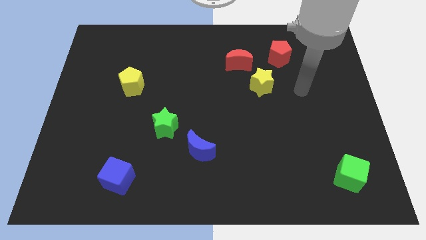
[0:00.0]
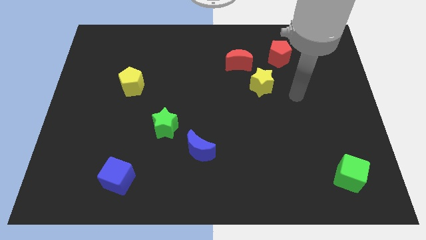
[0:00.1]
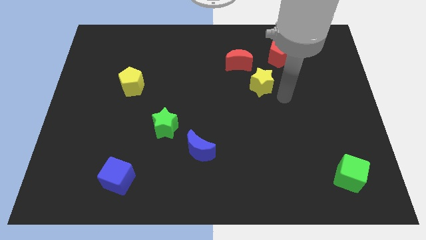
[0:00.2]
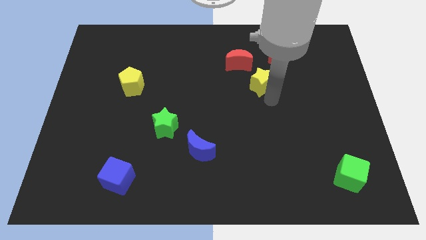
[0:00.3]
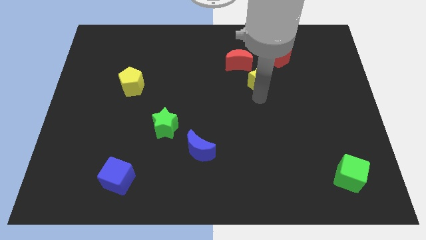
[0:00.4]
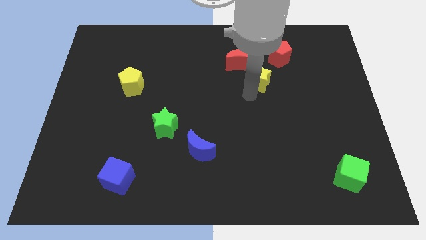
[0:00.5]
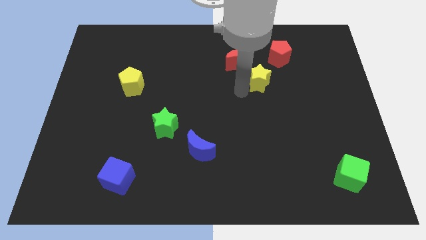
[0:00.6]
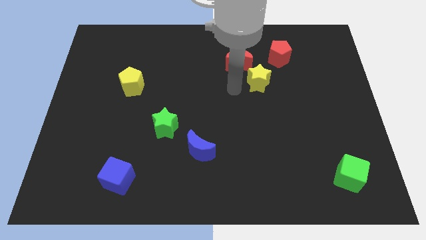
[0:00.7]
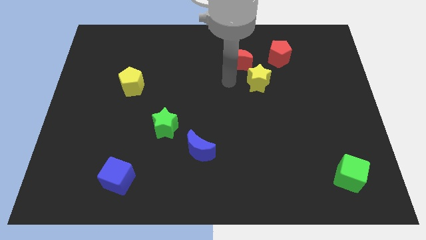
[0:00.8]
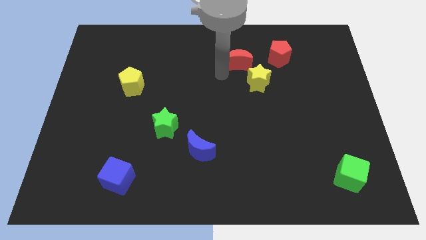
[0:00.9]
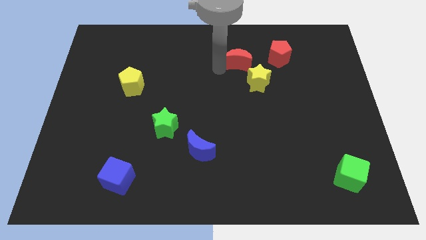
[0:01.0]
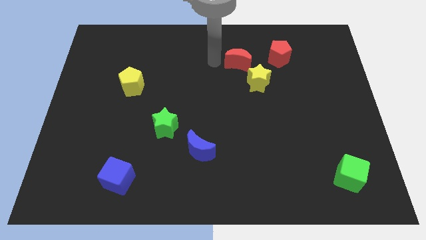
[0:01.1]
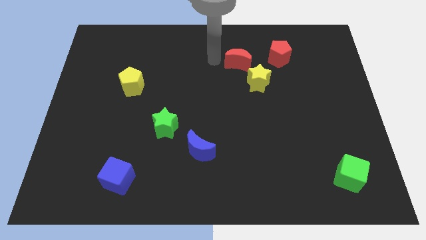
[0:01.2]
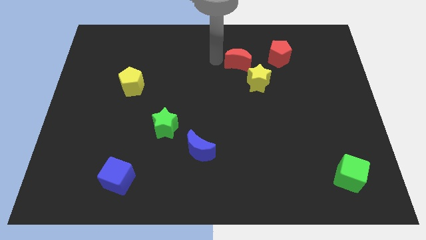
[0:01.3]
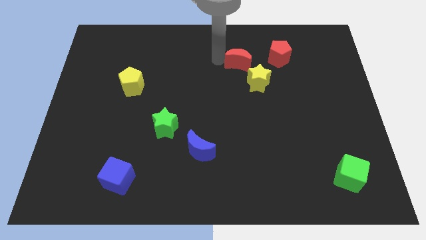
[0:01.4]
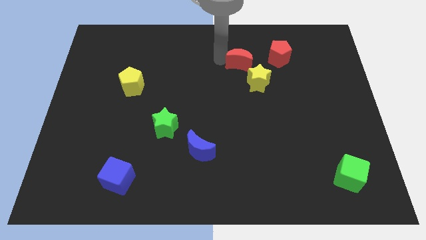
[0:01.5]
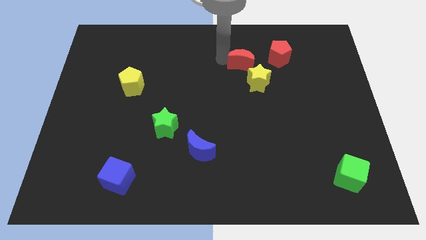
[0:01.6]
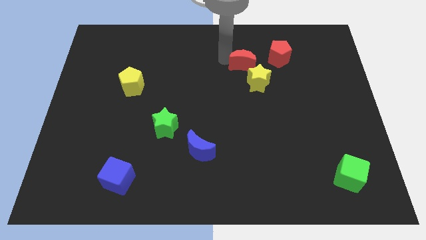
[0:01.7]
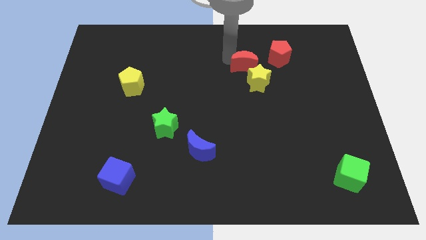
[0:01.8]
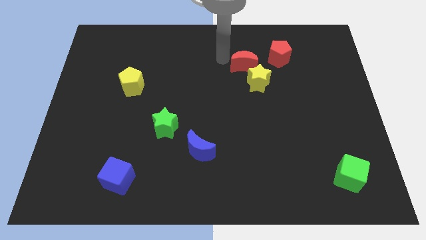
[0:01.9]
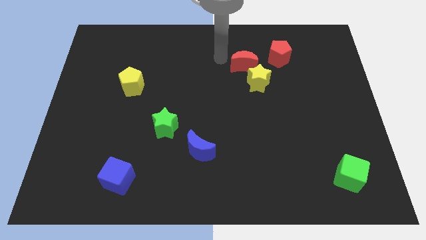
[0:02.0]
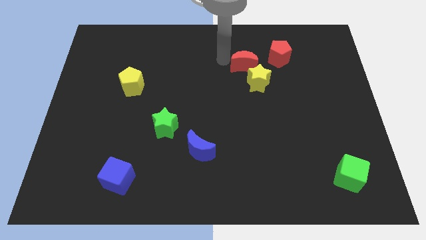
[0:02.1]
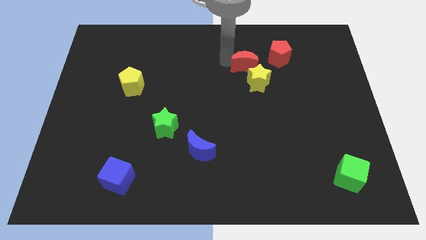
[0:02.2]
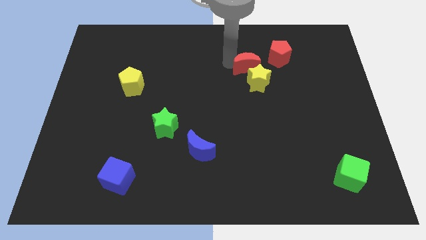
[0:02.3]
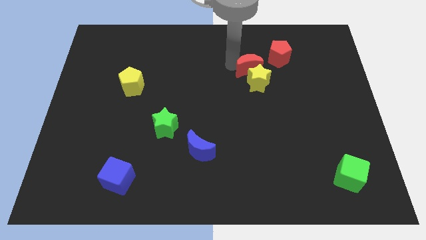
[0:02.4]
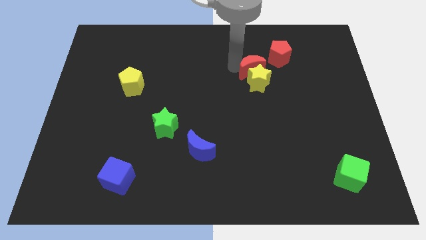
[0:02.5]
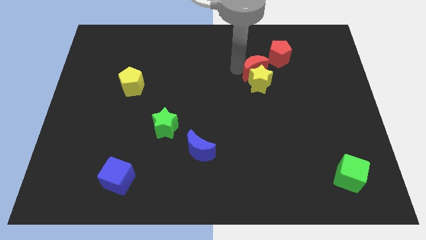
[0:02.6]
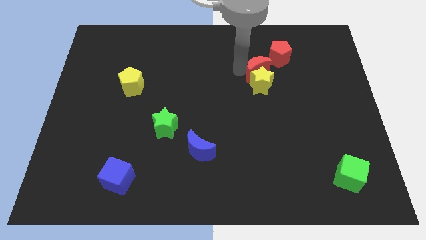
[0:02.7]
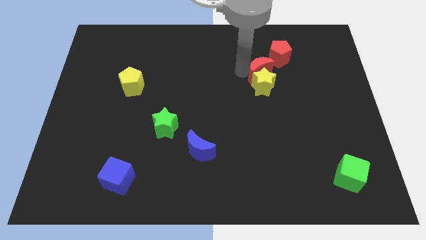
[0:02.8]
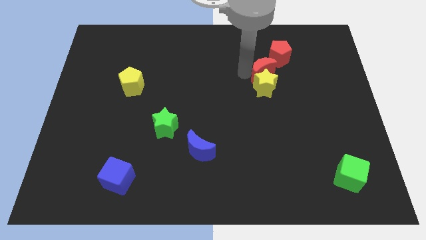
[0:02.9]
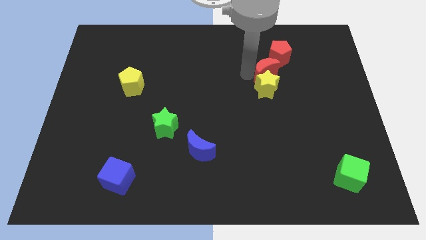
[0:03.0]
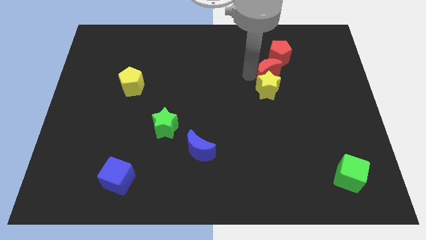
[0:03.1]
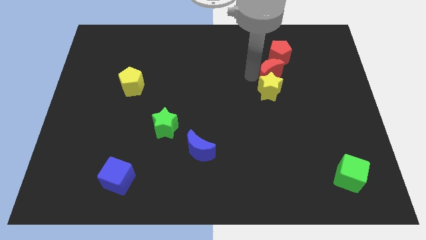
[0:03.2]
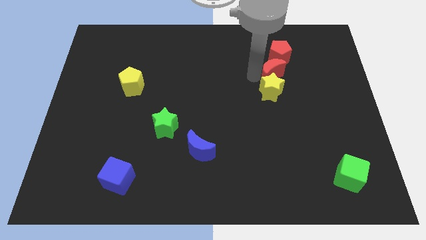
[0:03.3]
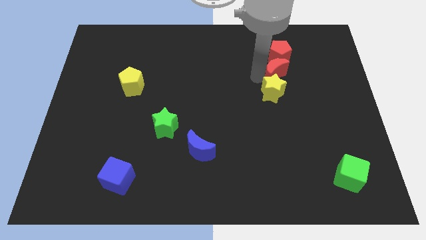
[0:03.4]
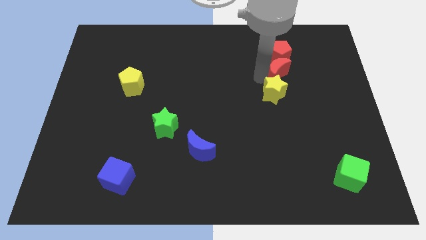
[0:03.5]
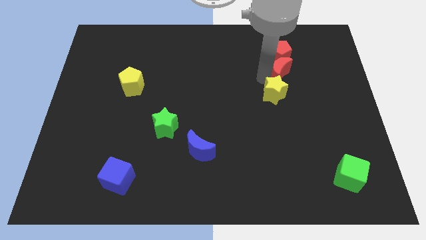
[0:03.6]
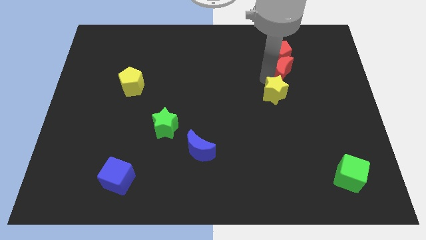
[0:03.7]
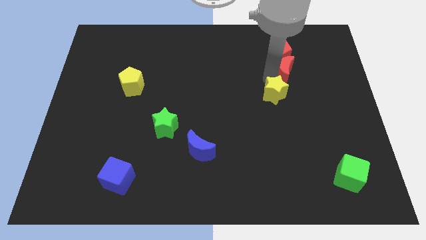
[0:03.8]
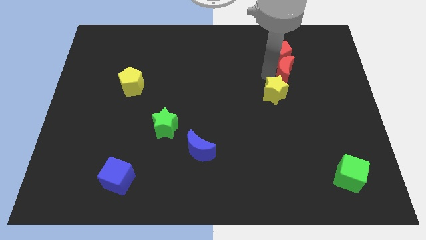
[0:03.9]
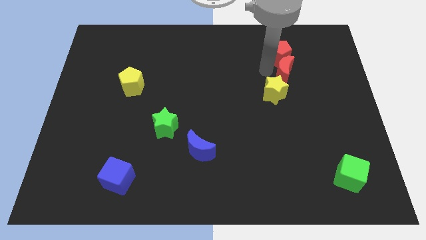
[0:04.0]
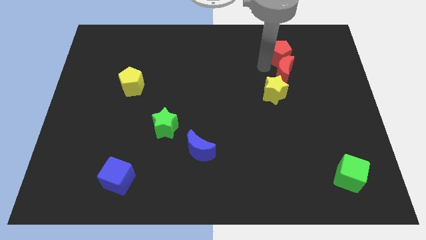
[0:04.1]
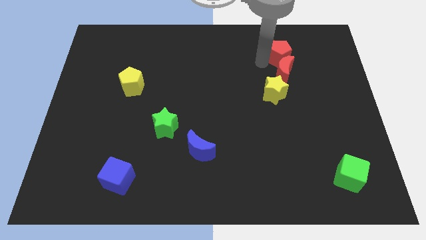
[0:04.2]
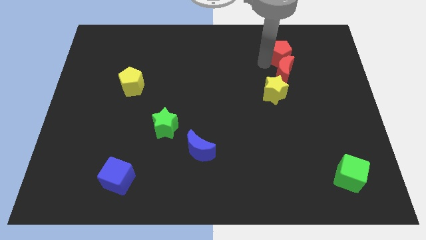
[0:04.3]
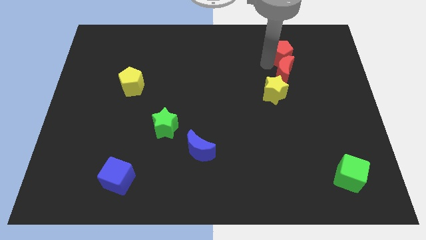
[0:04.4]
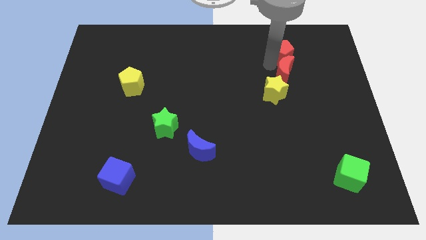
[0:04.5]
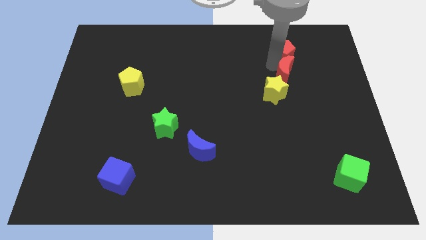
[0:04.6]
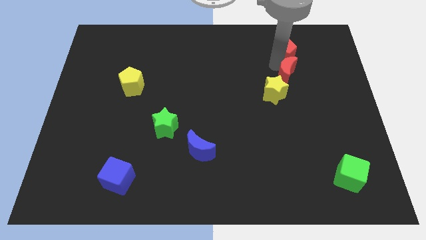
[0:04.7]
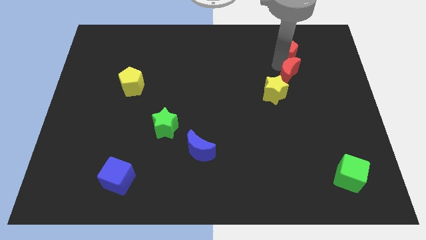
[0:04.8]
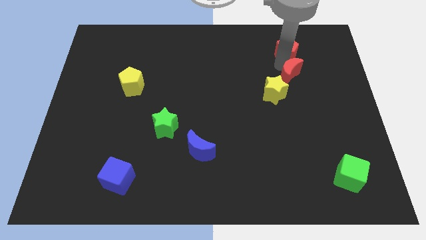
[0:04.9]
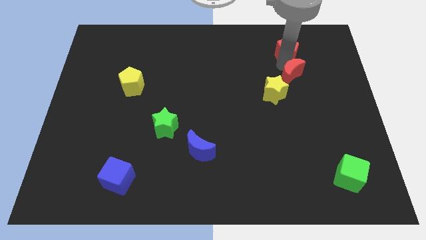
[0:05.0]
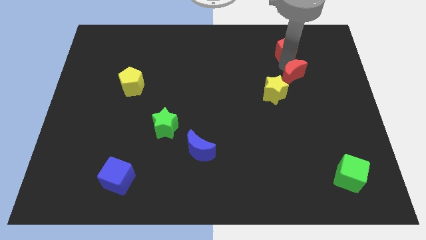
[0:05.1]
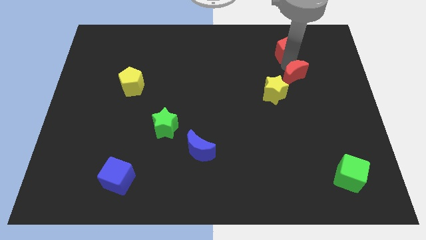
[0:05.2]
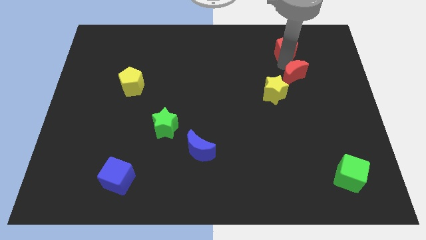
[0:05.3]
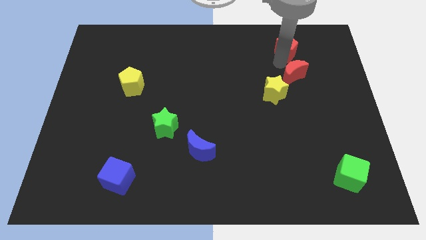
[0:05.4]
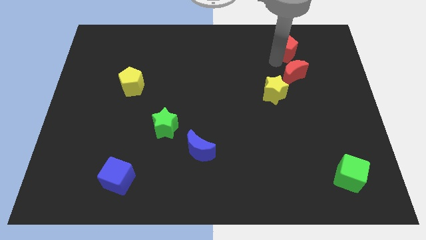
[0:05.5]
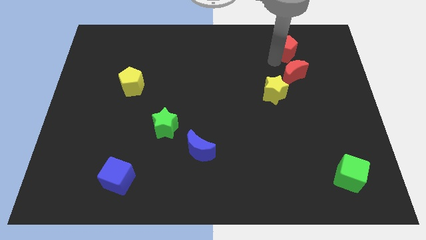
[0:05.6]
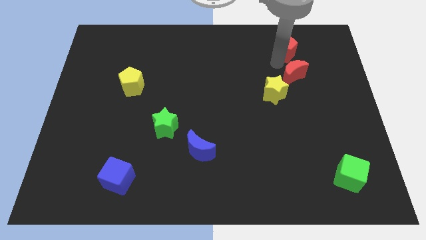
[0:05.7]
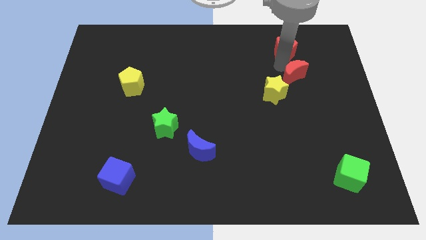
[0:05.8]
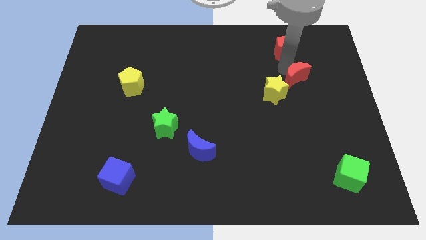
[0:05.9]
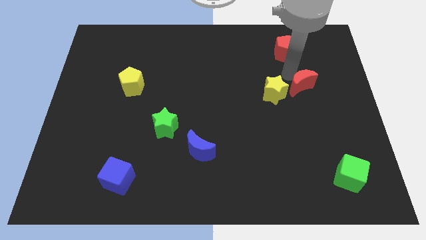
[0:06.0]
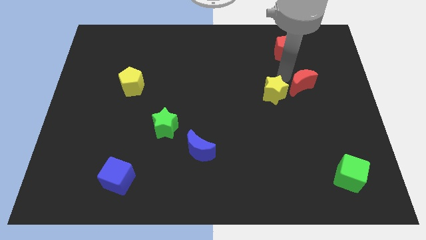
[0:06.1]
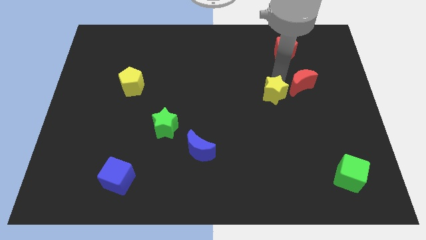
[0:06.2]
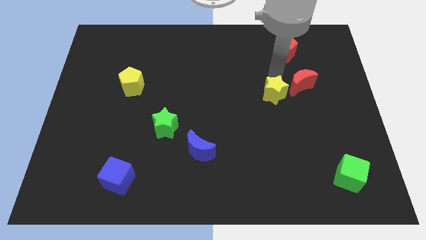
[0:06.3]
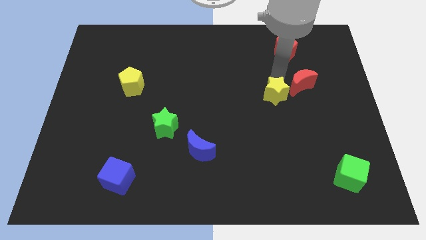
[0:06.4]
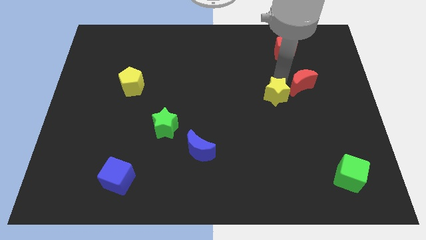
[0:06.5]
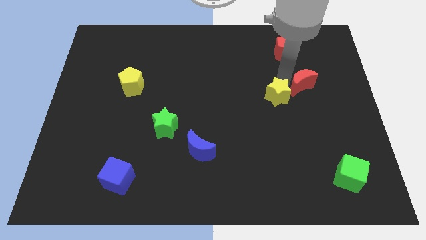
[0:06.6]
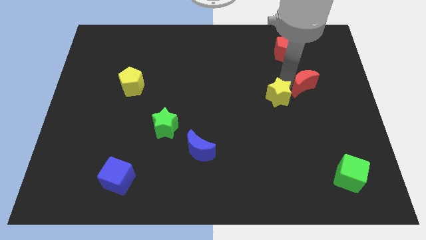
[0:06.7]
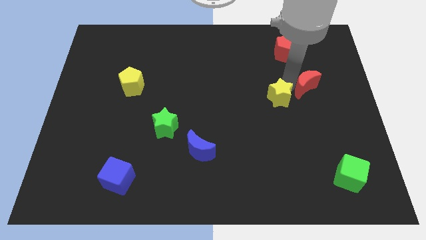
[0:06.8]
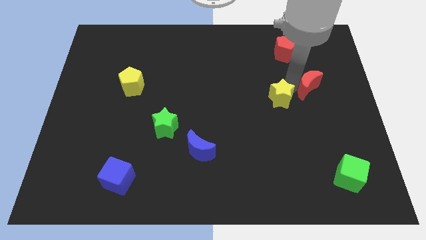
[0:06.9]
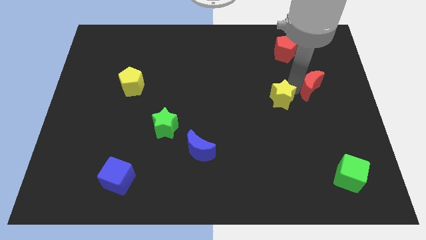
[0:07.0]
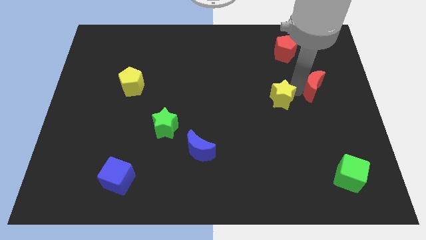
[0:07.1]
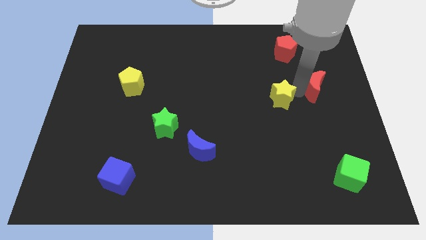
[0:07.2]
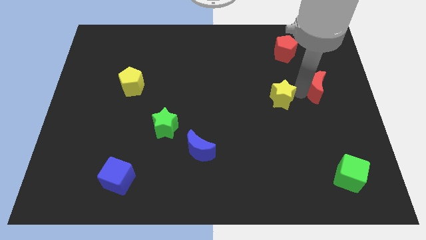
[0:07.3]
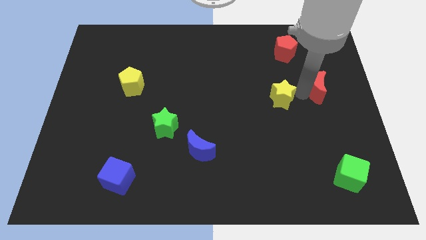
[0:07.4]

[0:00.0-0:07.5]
slide the red moon to the center right
